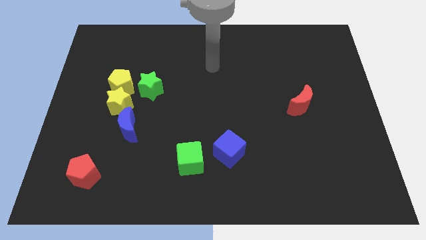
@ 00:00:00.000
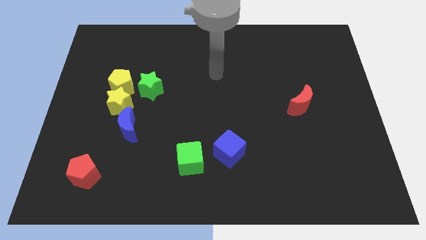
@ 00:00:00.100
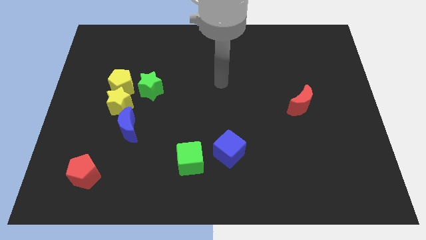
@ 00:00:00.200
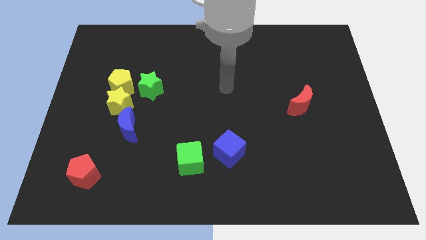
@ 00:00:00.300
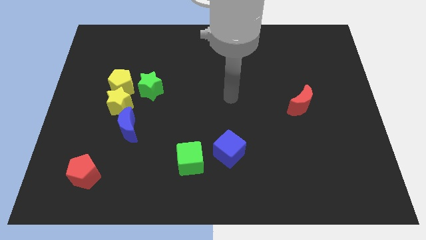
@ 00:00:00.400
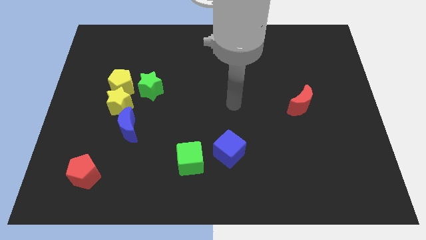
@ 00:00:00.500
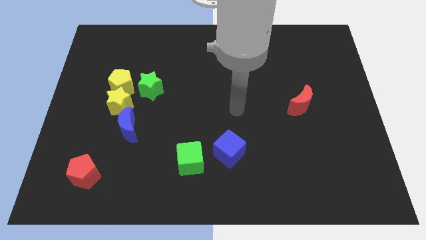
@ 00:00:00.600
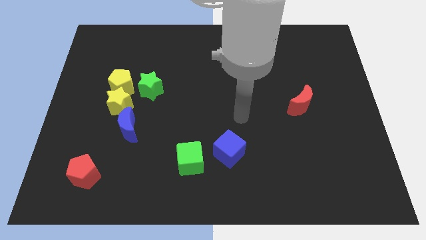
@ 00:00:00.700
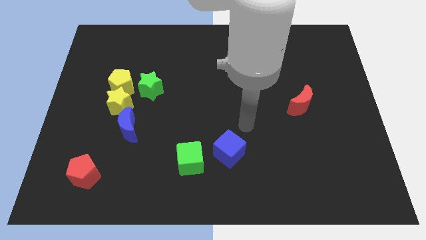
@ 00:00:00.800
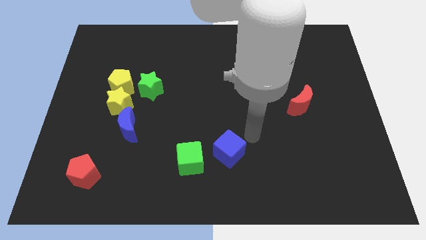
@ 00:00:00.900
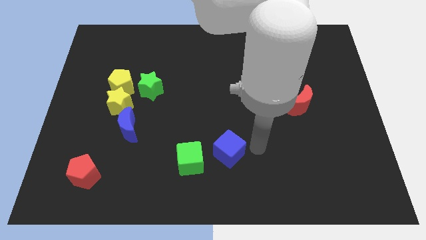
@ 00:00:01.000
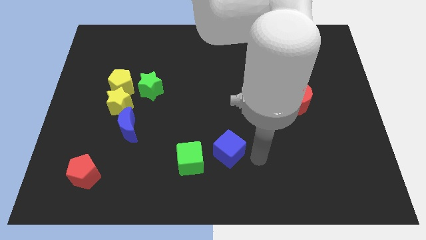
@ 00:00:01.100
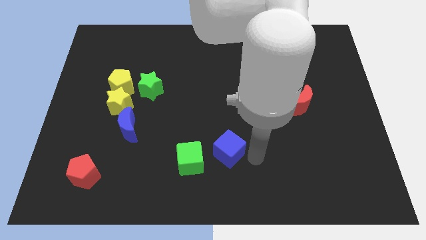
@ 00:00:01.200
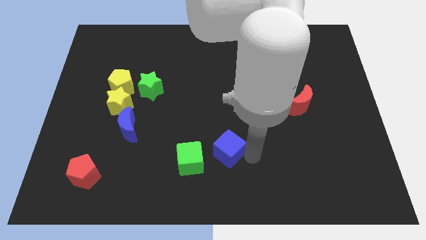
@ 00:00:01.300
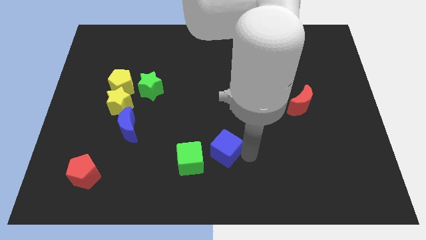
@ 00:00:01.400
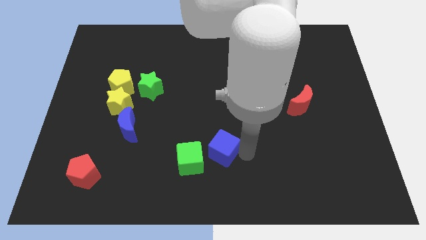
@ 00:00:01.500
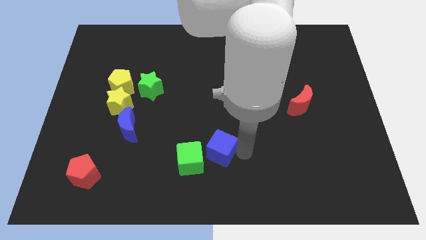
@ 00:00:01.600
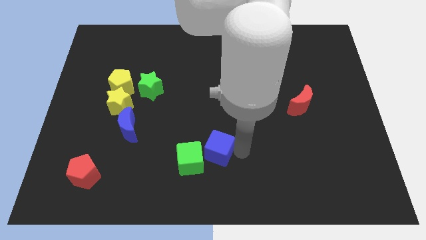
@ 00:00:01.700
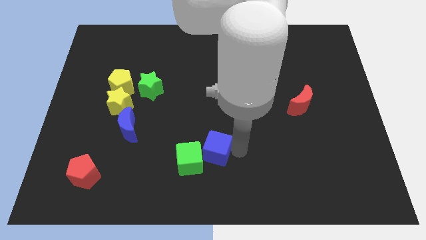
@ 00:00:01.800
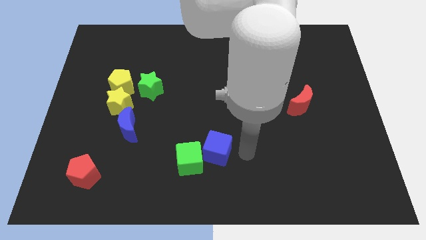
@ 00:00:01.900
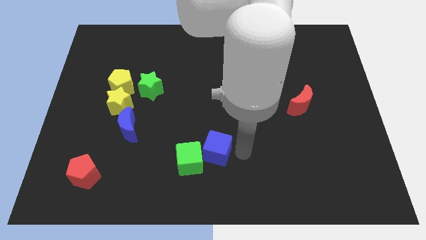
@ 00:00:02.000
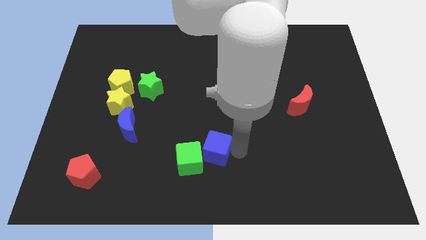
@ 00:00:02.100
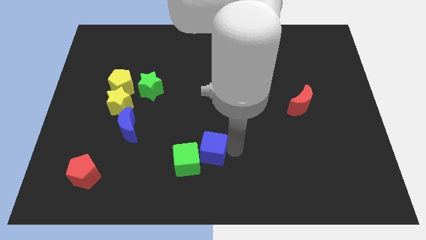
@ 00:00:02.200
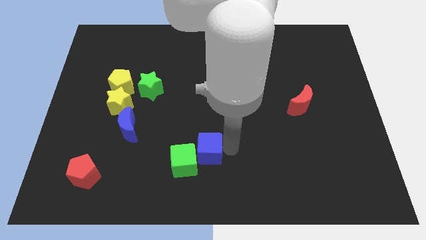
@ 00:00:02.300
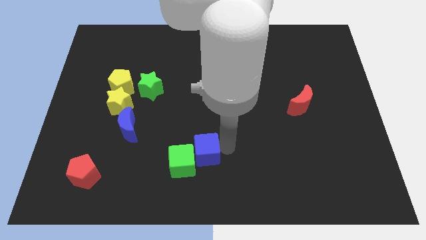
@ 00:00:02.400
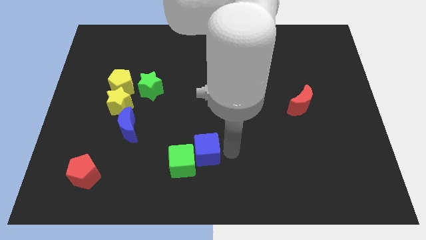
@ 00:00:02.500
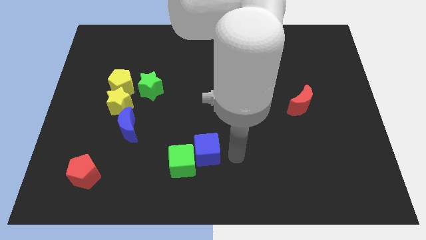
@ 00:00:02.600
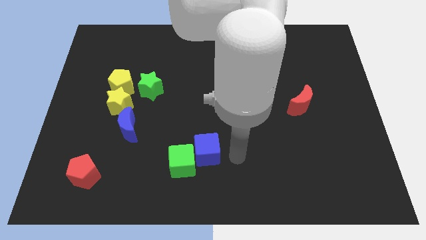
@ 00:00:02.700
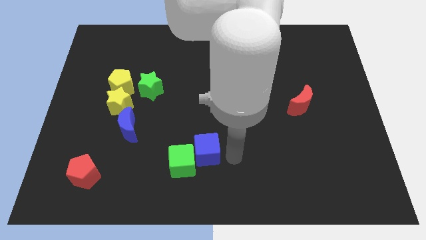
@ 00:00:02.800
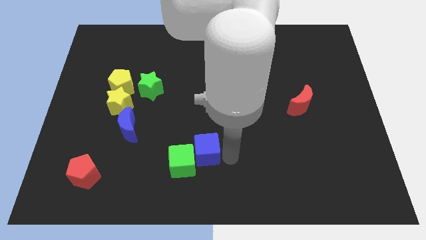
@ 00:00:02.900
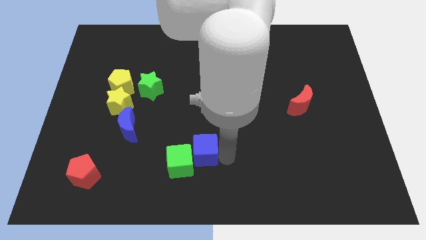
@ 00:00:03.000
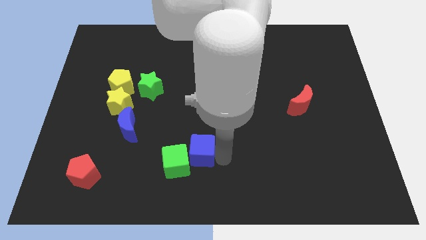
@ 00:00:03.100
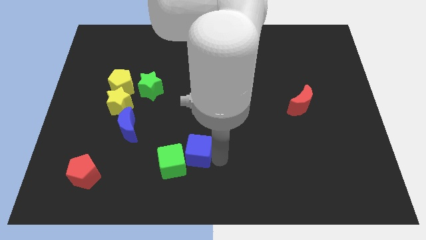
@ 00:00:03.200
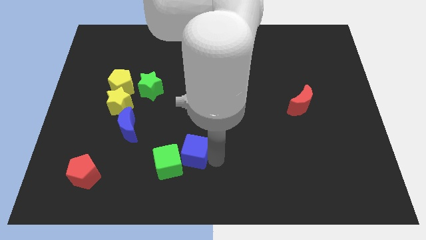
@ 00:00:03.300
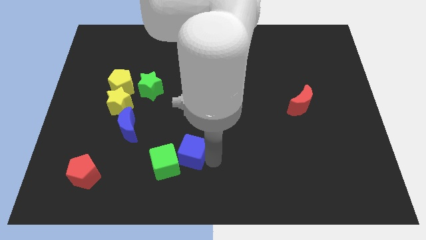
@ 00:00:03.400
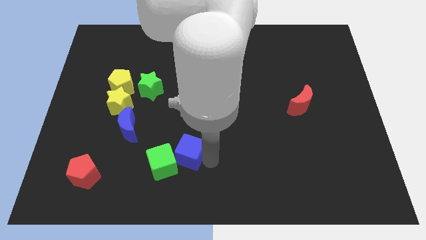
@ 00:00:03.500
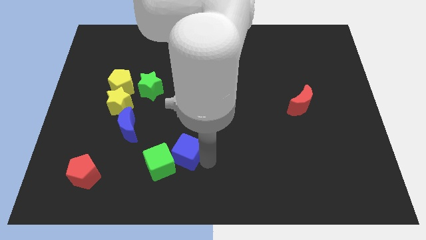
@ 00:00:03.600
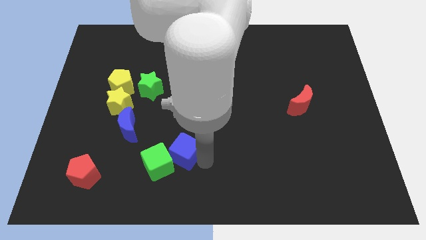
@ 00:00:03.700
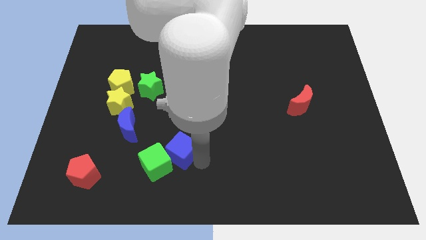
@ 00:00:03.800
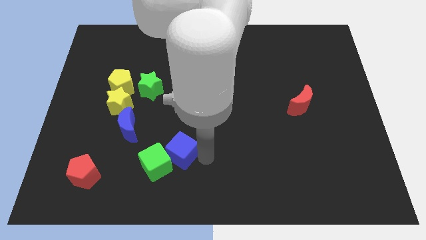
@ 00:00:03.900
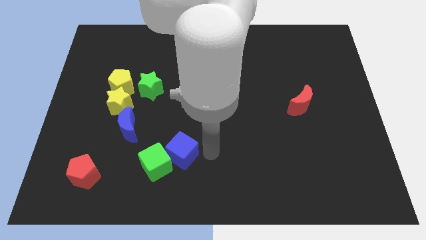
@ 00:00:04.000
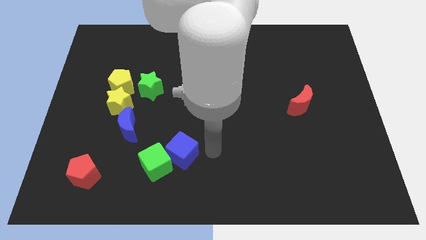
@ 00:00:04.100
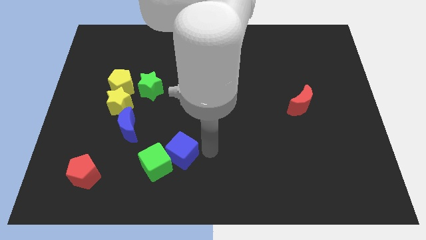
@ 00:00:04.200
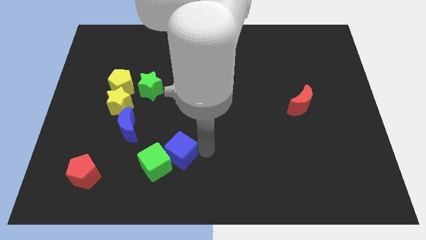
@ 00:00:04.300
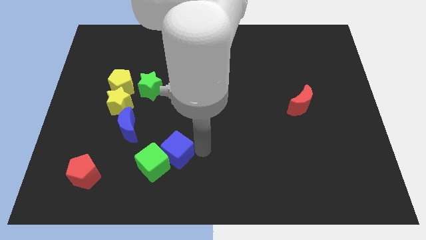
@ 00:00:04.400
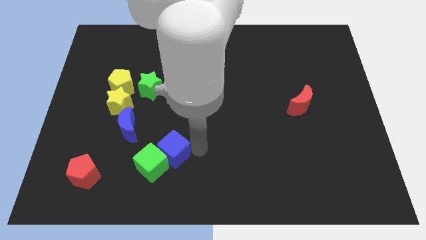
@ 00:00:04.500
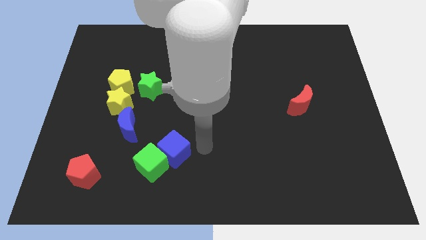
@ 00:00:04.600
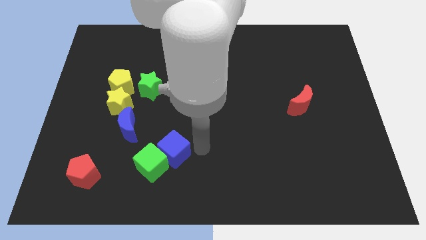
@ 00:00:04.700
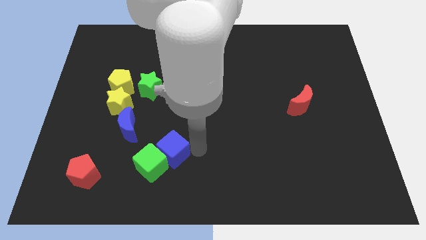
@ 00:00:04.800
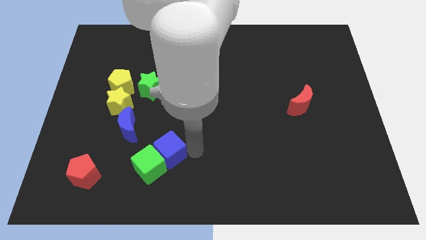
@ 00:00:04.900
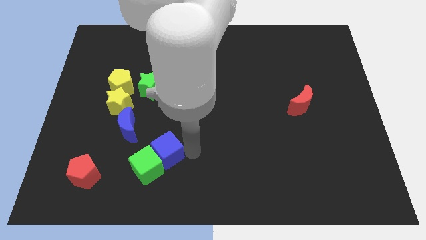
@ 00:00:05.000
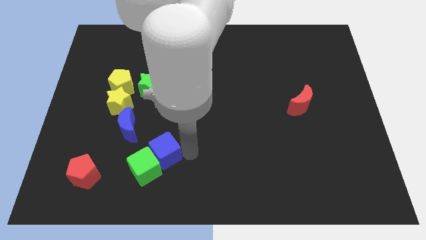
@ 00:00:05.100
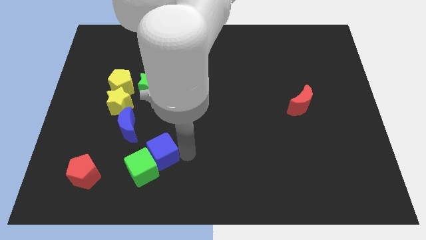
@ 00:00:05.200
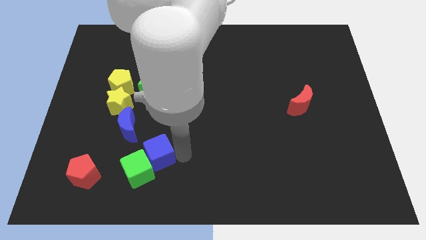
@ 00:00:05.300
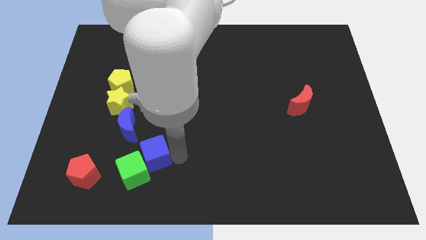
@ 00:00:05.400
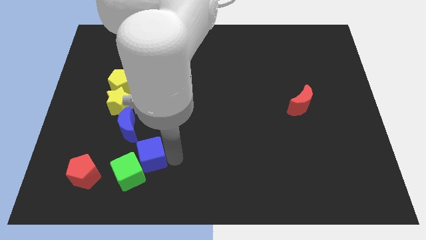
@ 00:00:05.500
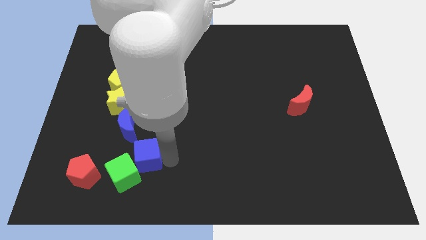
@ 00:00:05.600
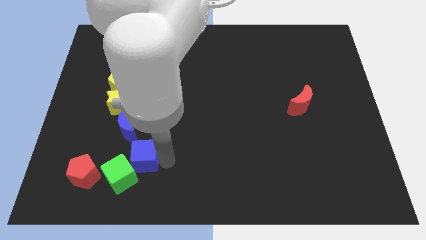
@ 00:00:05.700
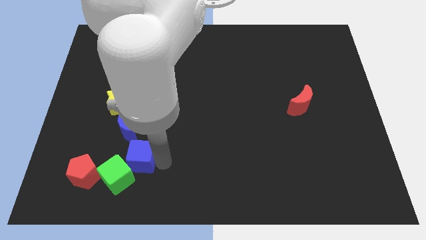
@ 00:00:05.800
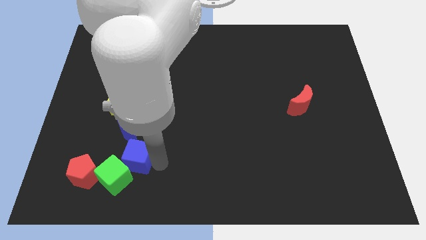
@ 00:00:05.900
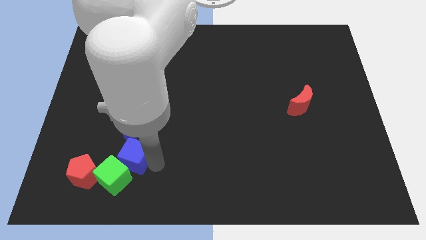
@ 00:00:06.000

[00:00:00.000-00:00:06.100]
move the blue cube to the left

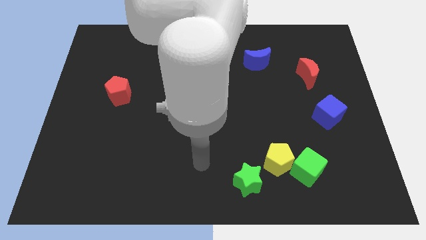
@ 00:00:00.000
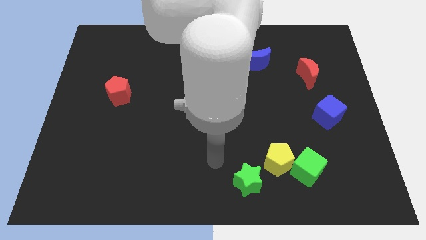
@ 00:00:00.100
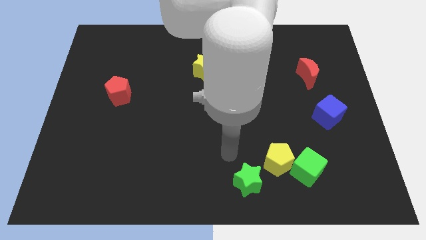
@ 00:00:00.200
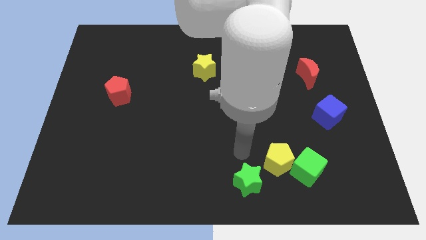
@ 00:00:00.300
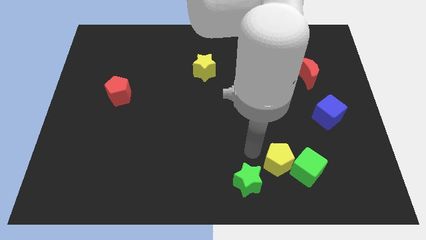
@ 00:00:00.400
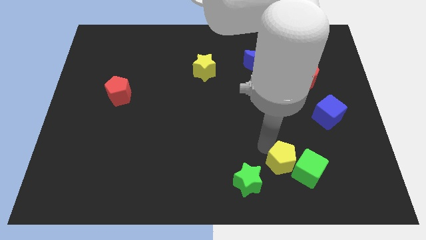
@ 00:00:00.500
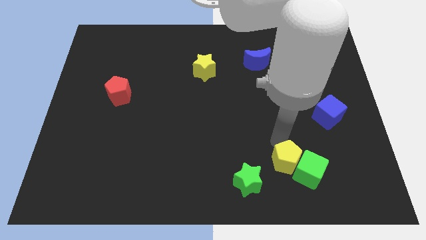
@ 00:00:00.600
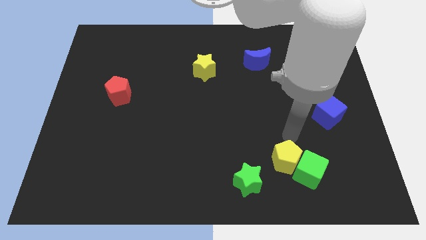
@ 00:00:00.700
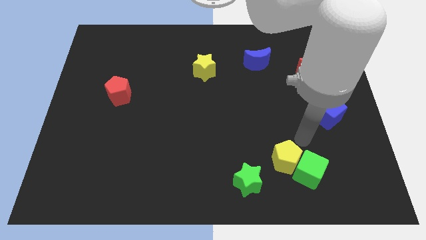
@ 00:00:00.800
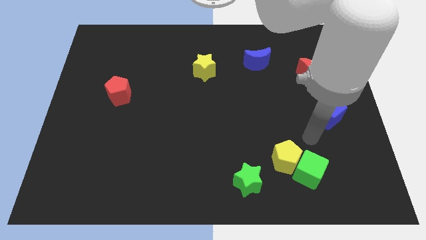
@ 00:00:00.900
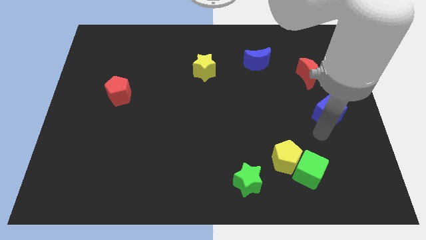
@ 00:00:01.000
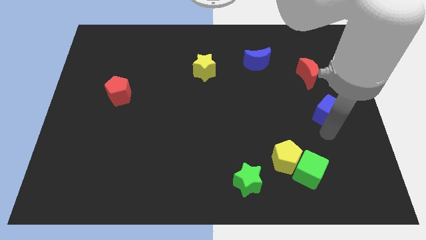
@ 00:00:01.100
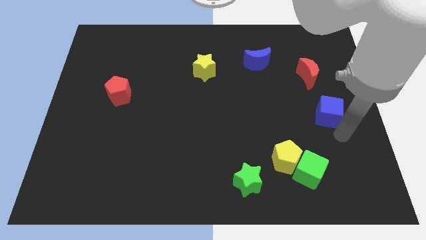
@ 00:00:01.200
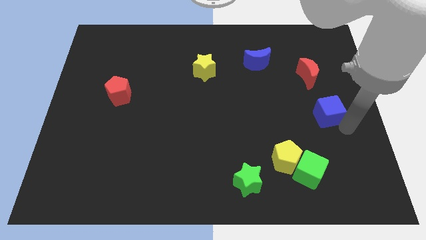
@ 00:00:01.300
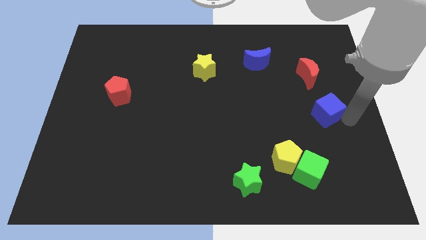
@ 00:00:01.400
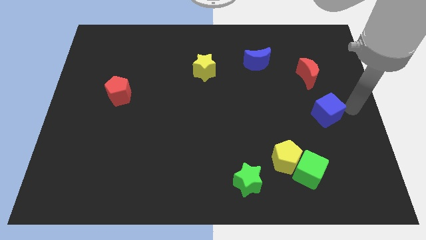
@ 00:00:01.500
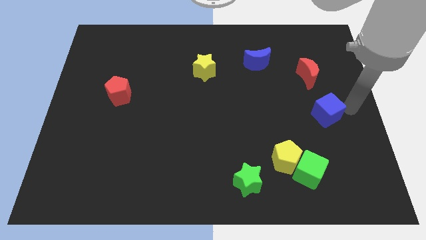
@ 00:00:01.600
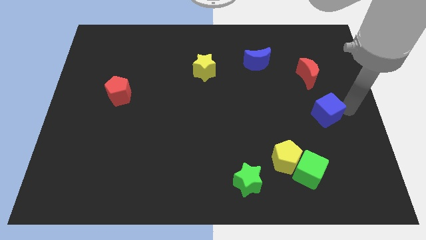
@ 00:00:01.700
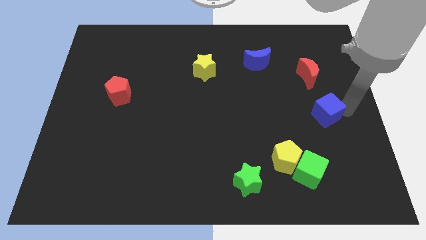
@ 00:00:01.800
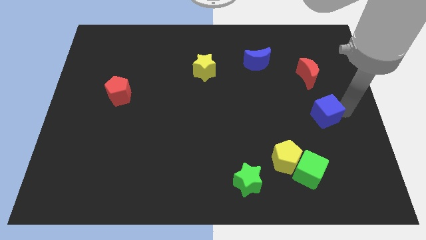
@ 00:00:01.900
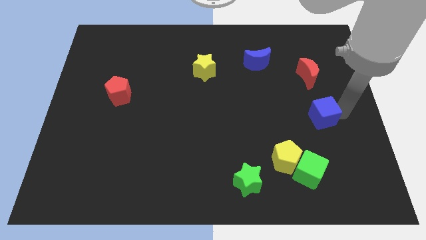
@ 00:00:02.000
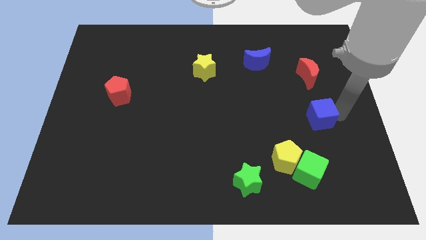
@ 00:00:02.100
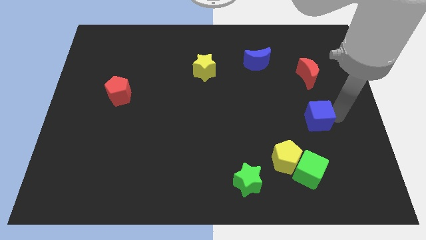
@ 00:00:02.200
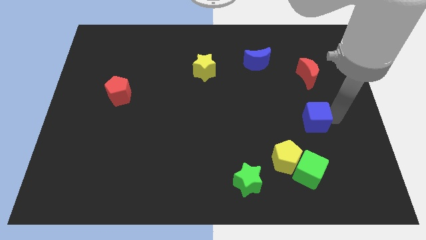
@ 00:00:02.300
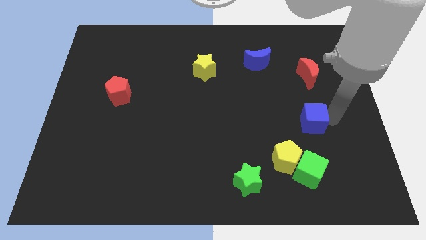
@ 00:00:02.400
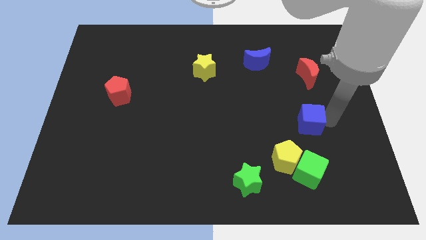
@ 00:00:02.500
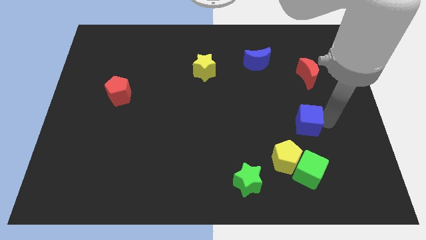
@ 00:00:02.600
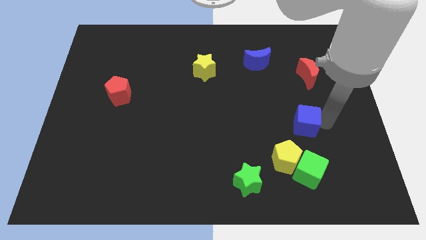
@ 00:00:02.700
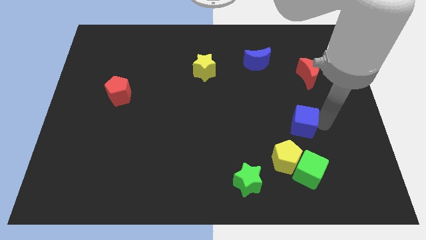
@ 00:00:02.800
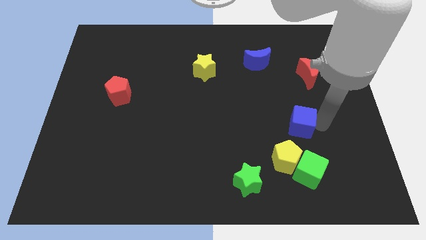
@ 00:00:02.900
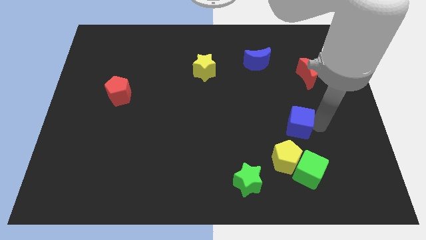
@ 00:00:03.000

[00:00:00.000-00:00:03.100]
slightly slide the blue cube left
